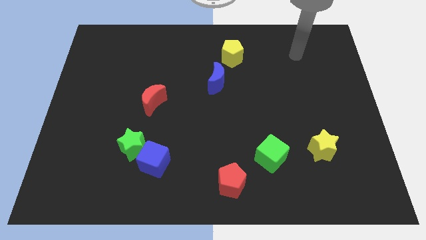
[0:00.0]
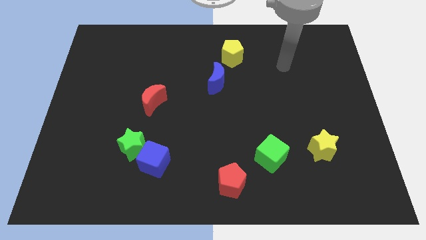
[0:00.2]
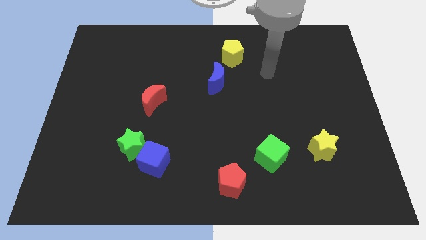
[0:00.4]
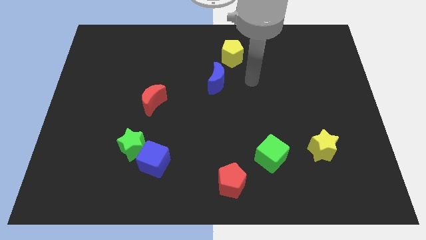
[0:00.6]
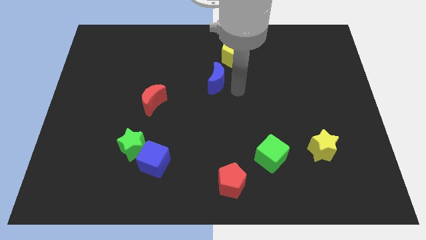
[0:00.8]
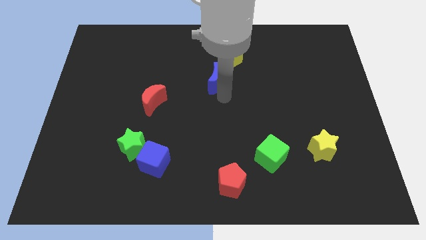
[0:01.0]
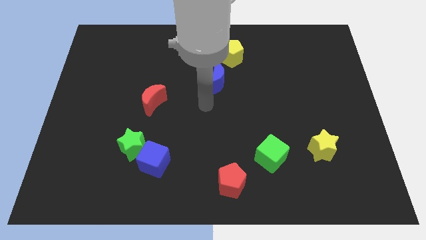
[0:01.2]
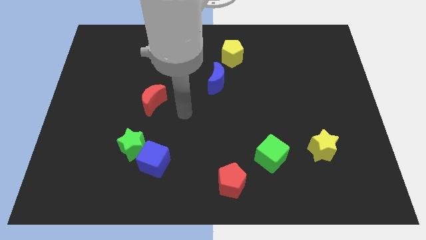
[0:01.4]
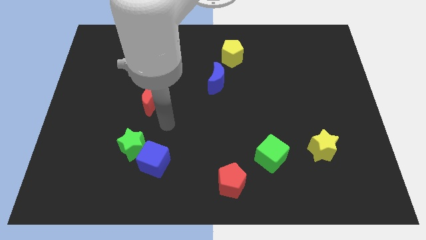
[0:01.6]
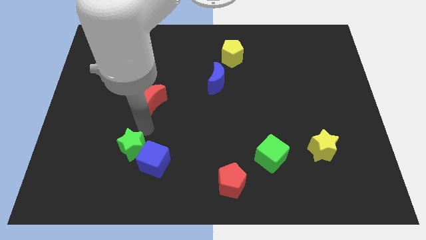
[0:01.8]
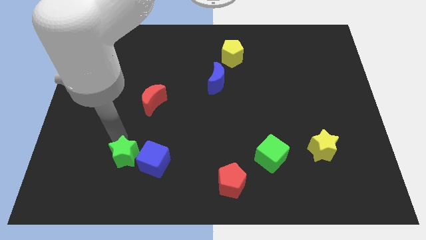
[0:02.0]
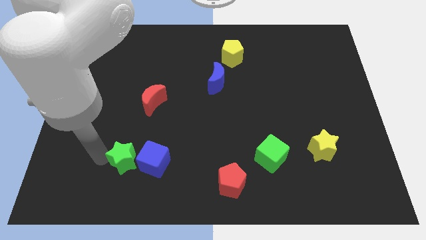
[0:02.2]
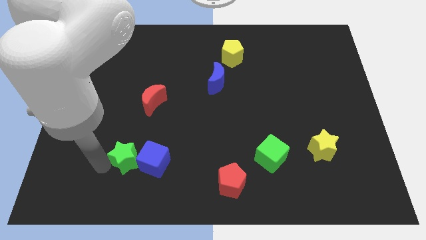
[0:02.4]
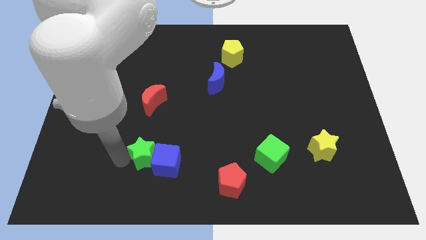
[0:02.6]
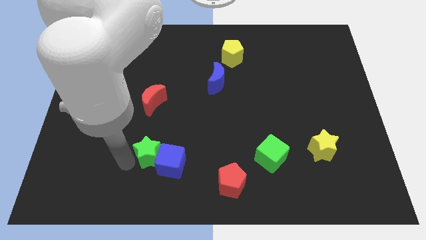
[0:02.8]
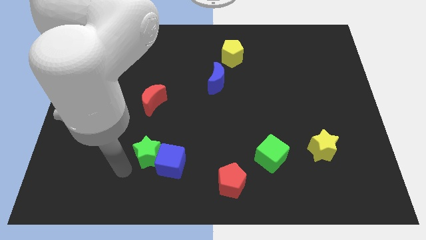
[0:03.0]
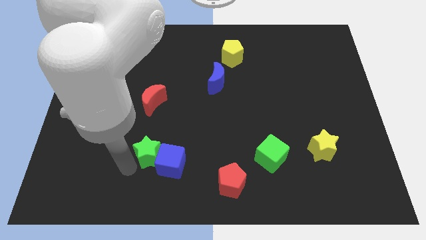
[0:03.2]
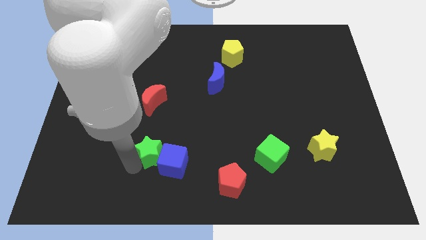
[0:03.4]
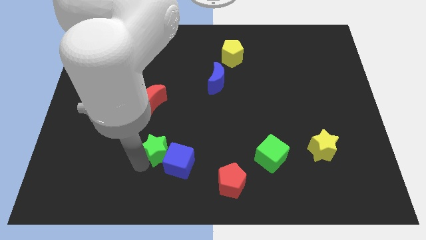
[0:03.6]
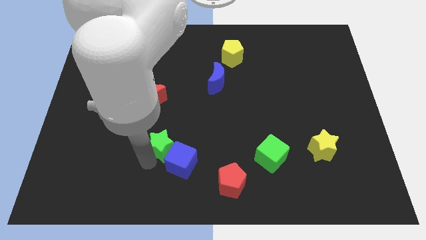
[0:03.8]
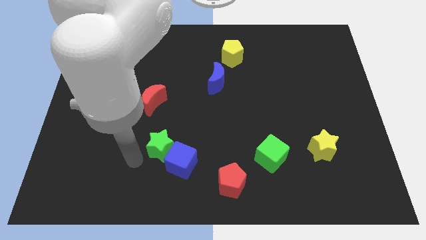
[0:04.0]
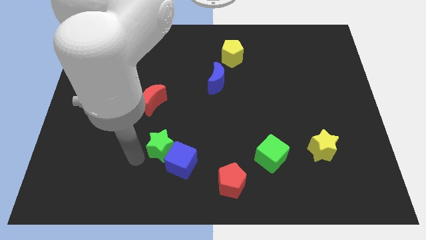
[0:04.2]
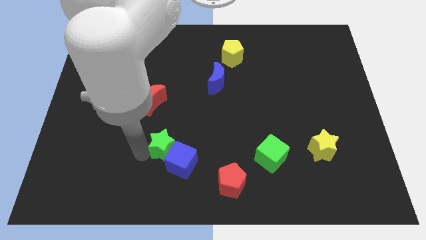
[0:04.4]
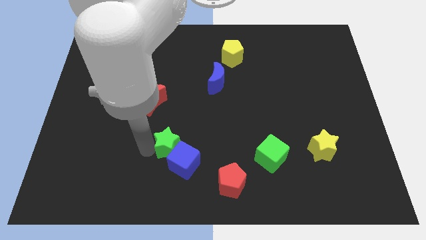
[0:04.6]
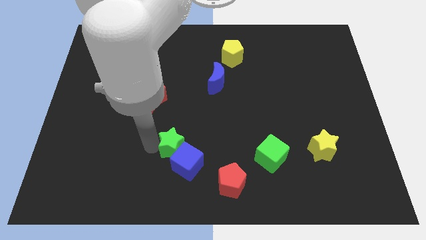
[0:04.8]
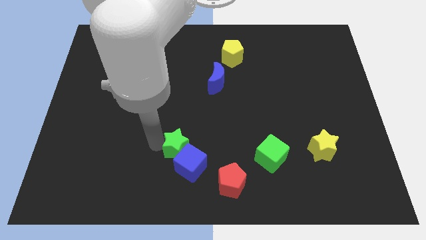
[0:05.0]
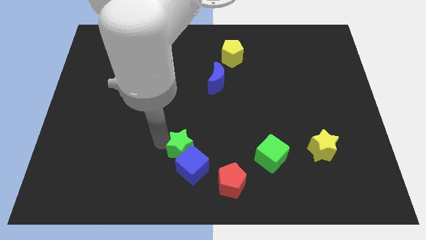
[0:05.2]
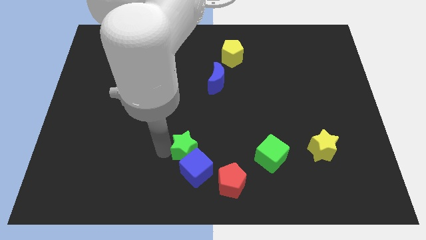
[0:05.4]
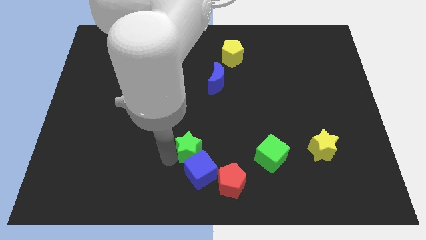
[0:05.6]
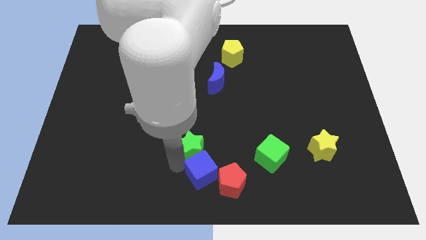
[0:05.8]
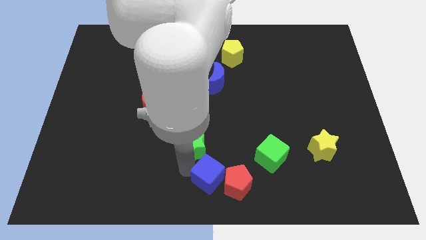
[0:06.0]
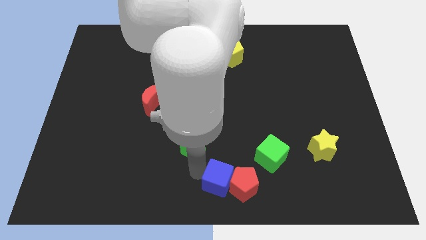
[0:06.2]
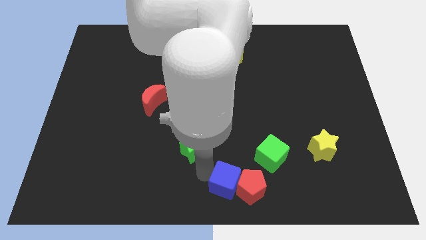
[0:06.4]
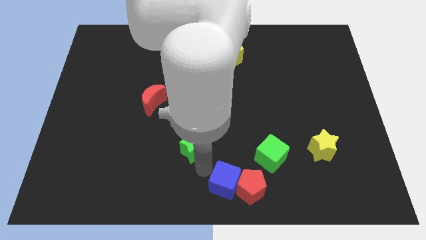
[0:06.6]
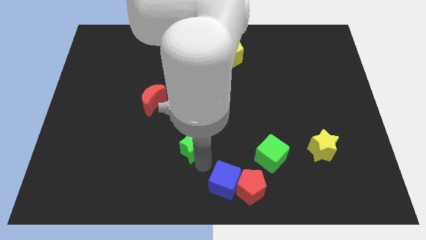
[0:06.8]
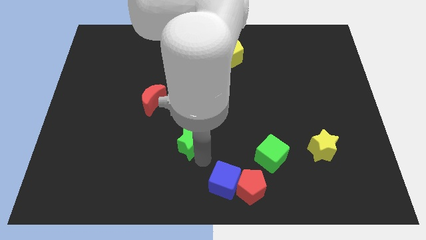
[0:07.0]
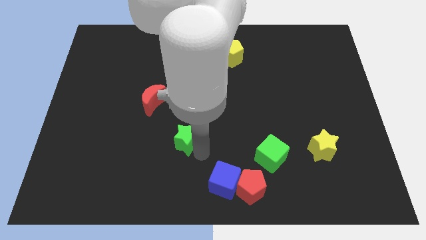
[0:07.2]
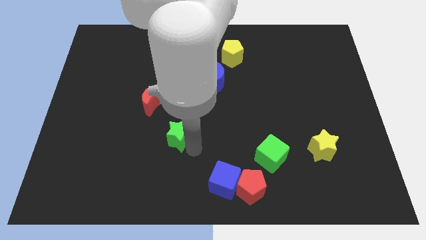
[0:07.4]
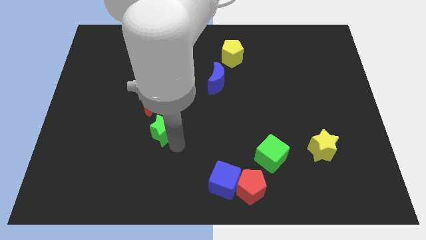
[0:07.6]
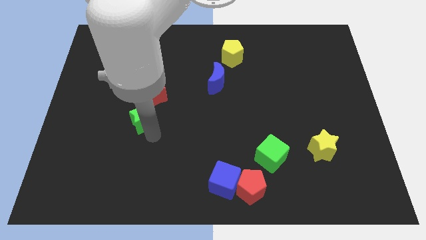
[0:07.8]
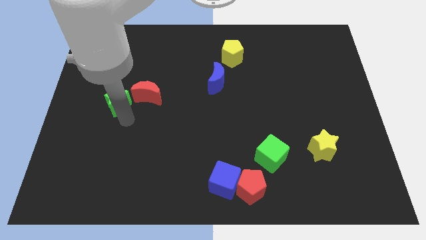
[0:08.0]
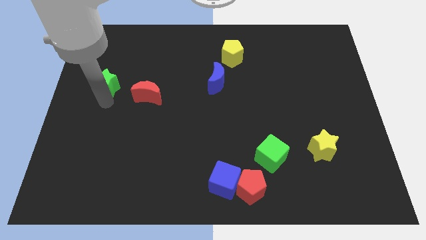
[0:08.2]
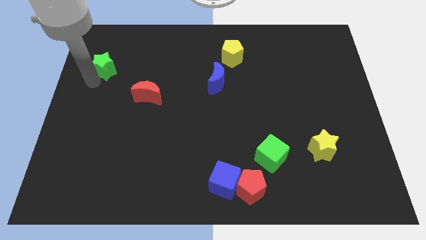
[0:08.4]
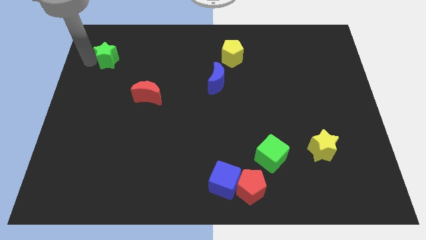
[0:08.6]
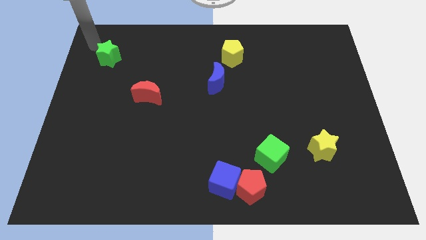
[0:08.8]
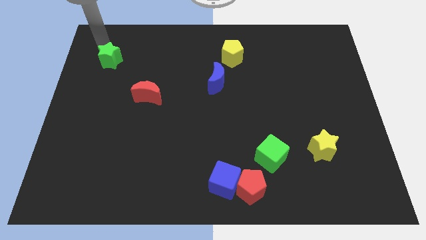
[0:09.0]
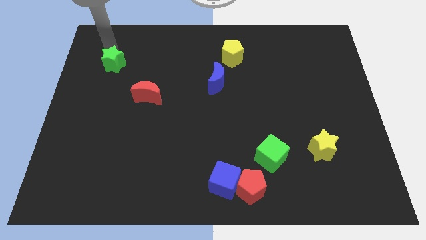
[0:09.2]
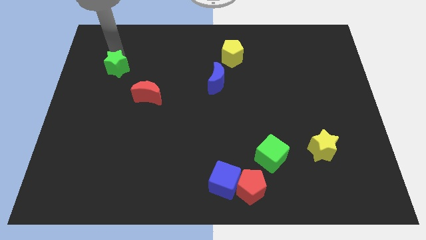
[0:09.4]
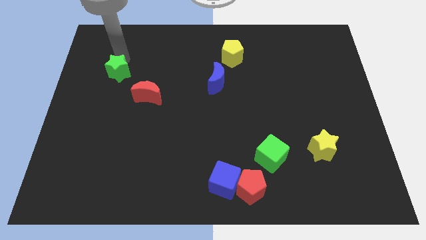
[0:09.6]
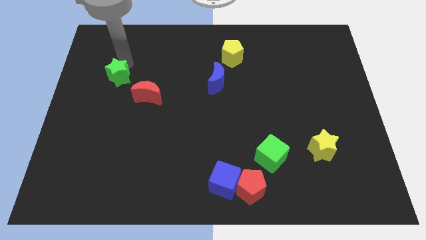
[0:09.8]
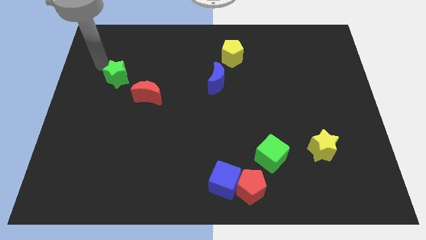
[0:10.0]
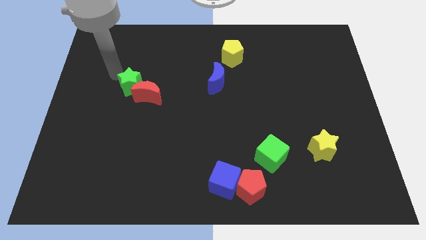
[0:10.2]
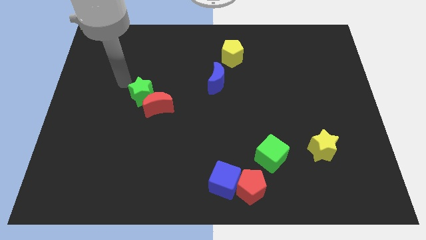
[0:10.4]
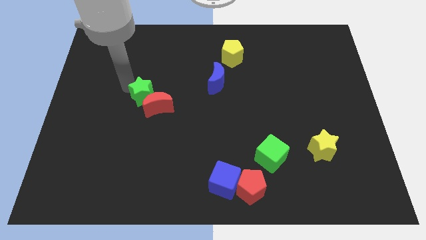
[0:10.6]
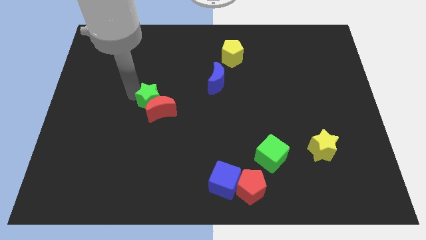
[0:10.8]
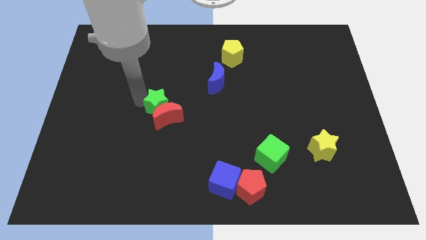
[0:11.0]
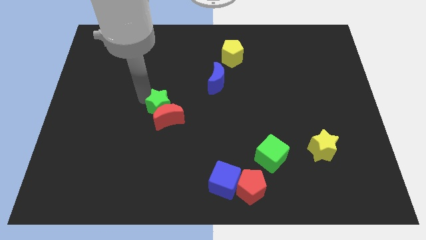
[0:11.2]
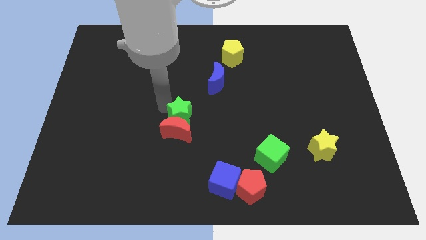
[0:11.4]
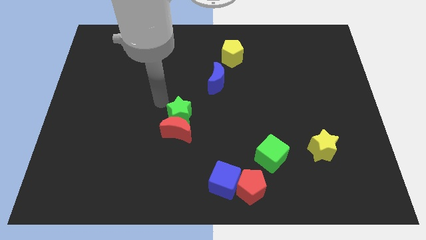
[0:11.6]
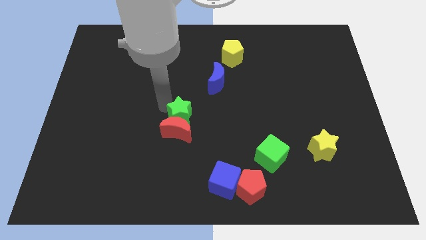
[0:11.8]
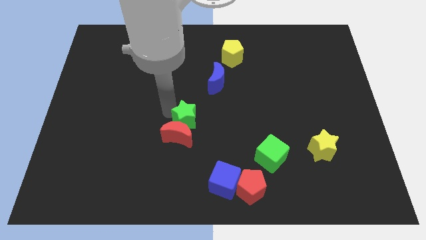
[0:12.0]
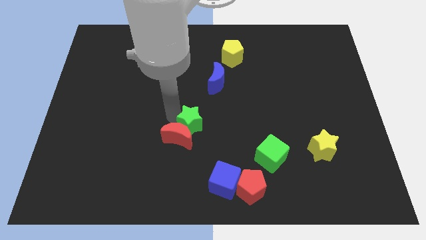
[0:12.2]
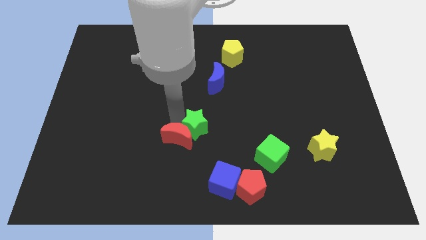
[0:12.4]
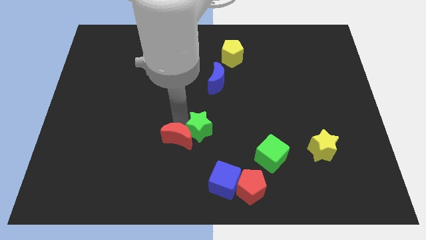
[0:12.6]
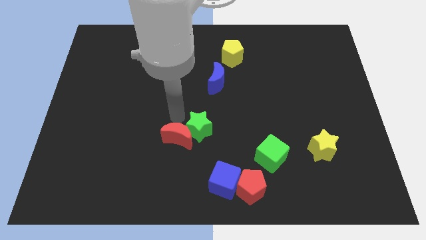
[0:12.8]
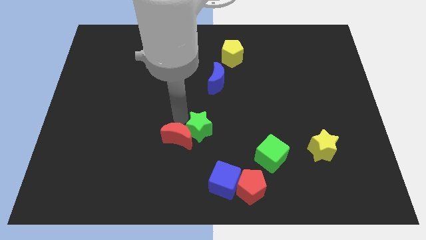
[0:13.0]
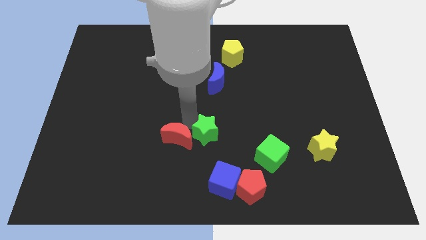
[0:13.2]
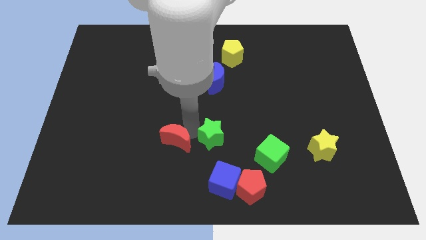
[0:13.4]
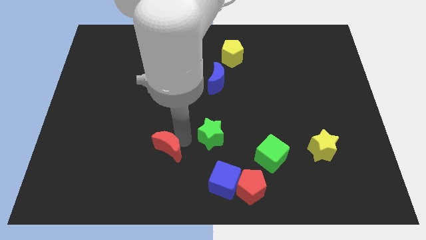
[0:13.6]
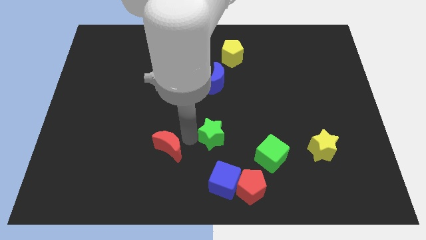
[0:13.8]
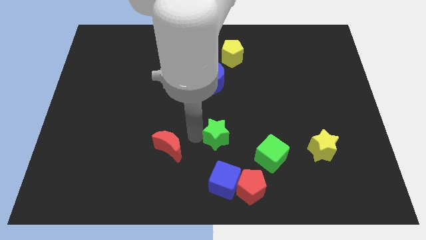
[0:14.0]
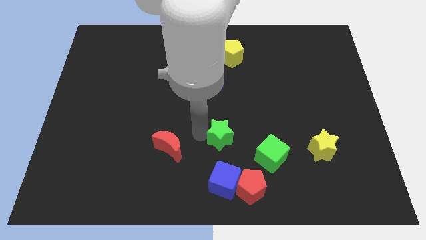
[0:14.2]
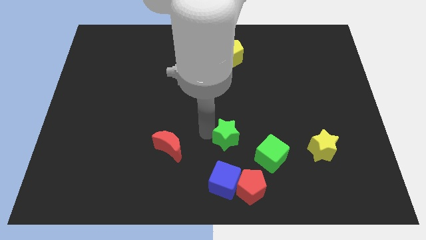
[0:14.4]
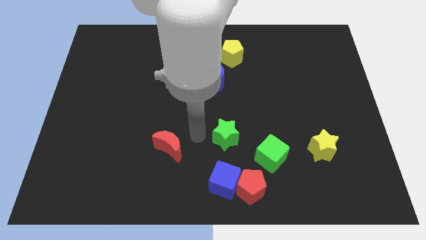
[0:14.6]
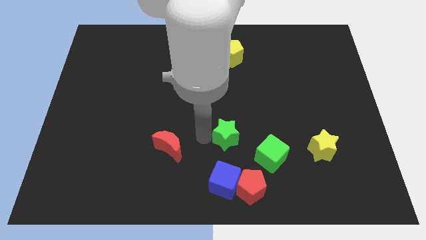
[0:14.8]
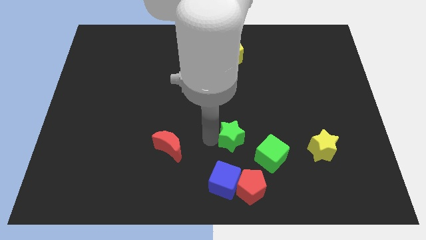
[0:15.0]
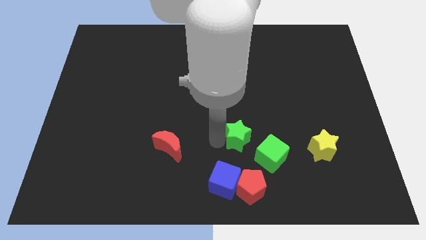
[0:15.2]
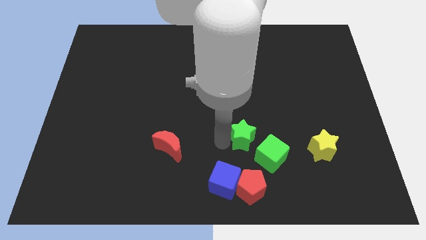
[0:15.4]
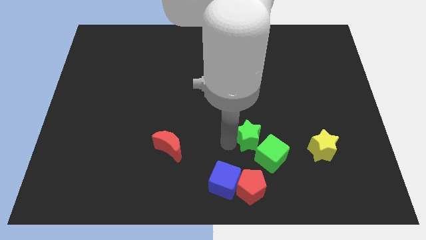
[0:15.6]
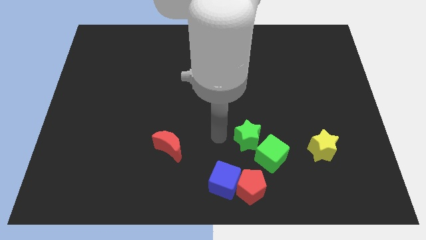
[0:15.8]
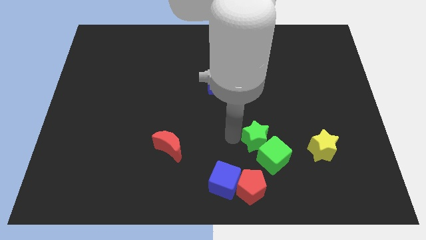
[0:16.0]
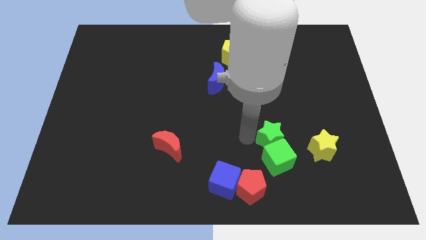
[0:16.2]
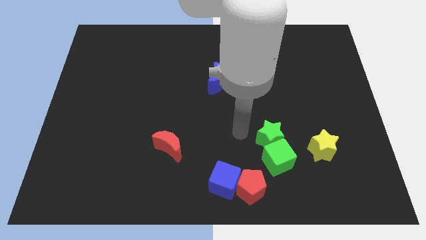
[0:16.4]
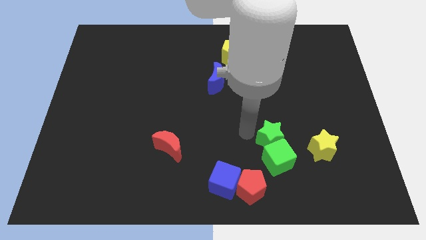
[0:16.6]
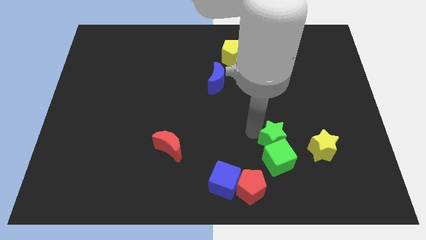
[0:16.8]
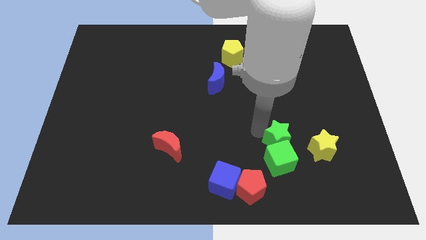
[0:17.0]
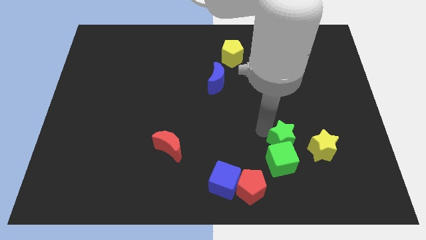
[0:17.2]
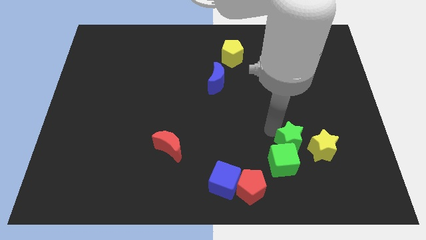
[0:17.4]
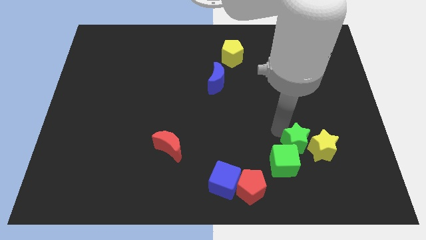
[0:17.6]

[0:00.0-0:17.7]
push the green star to the yellow star
